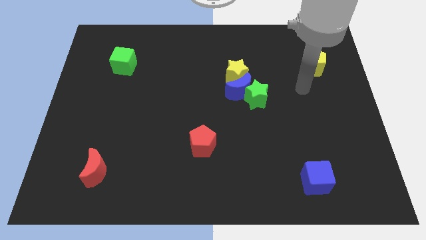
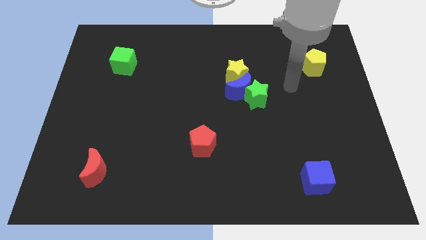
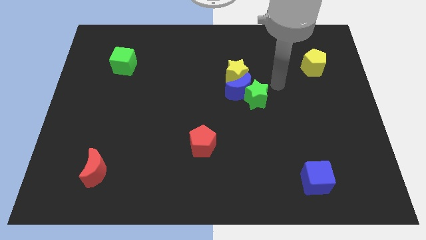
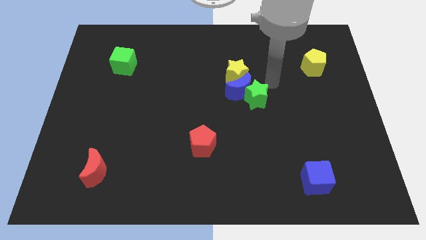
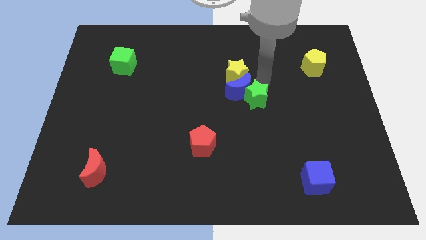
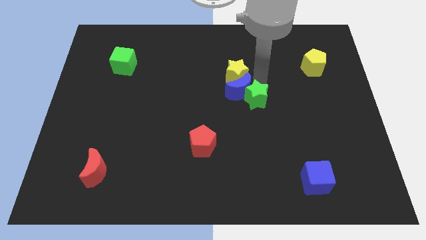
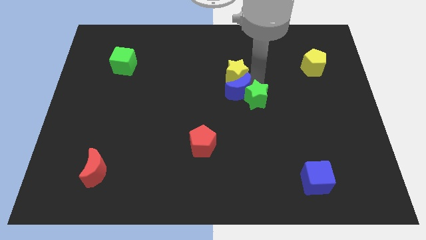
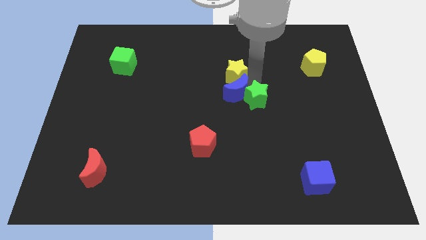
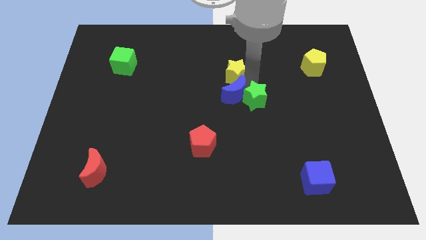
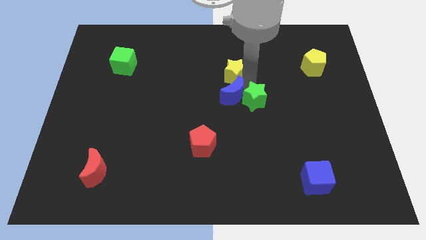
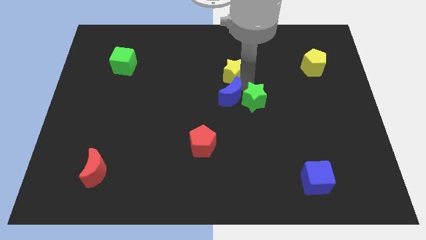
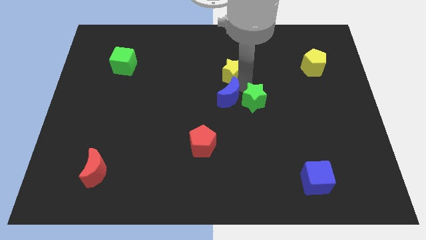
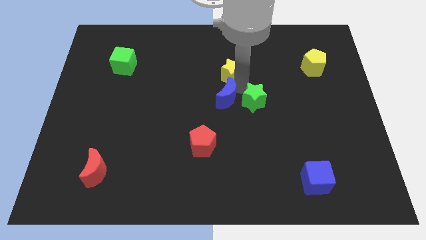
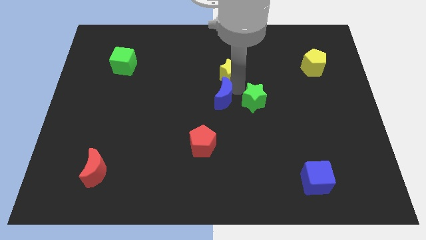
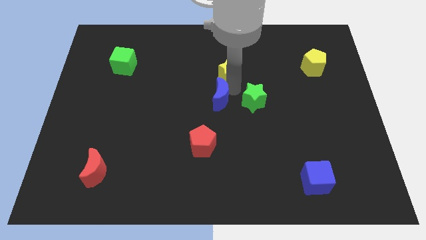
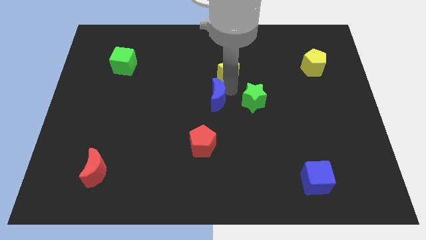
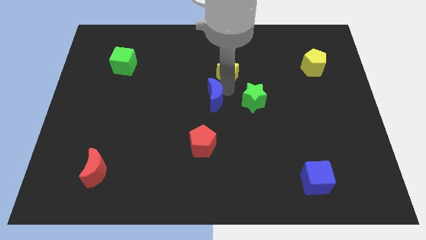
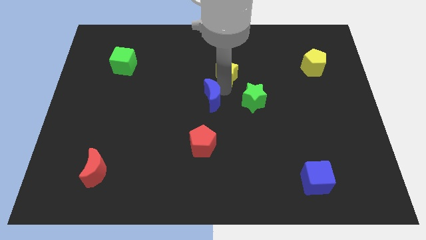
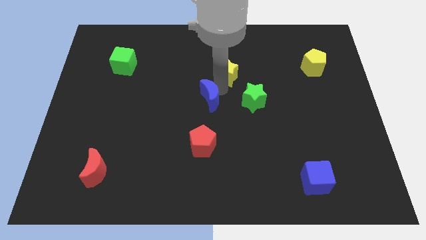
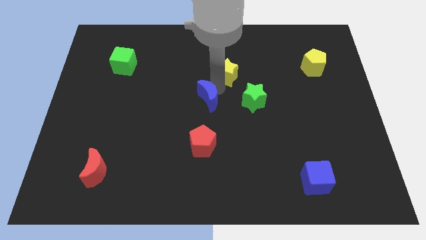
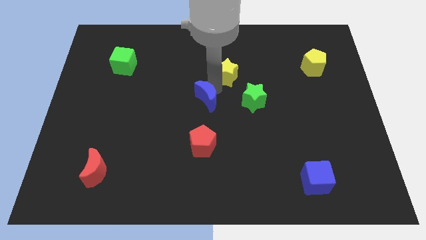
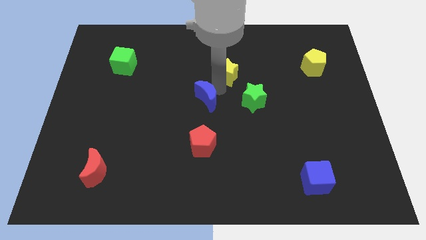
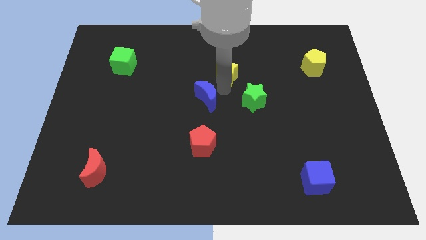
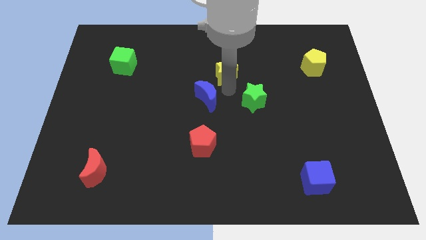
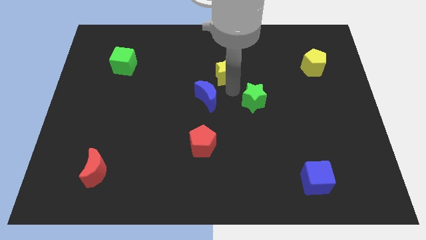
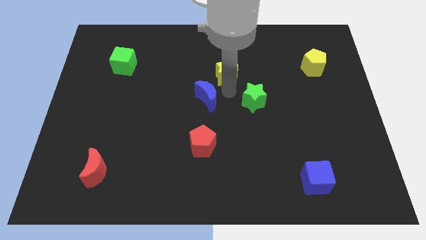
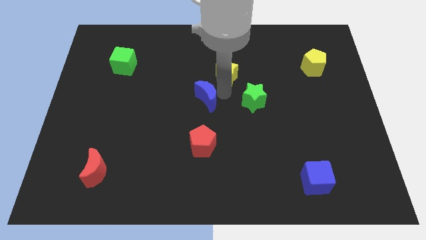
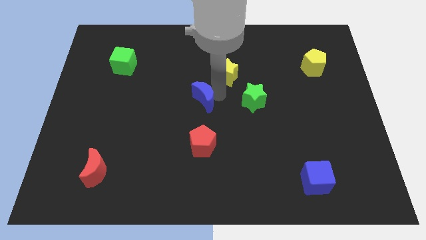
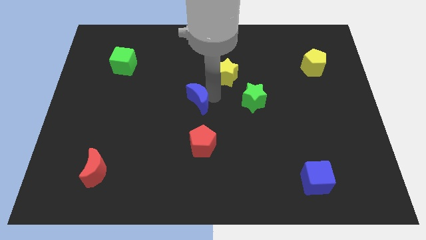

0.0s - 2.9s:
move the blue moon away from the green star and yellow star

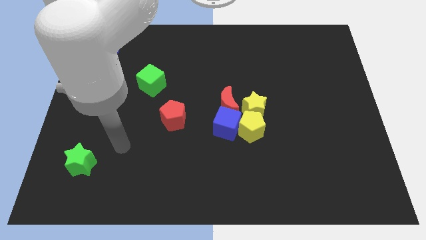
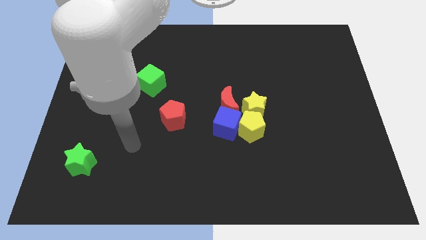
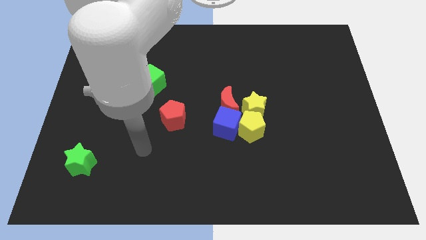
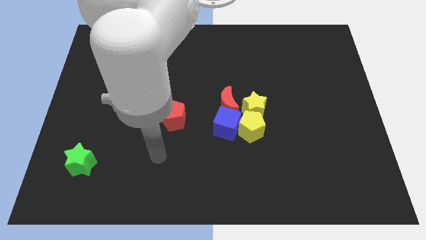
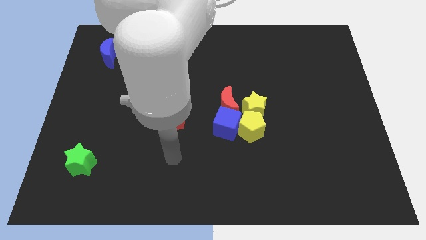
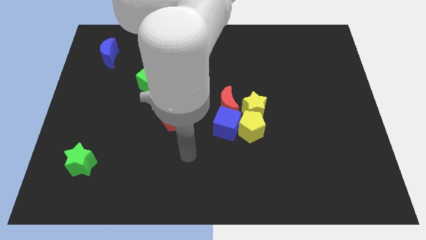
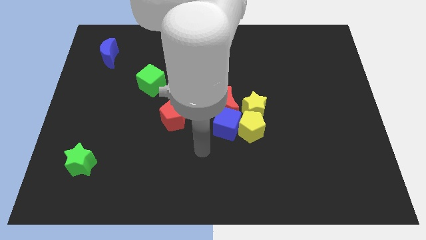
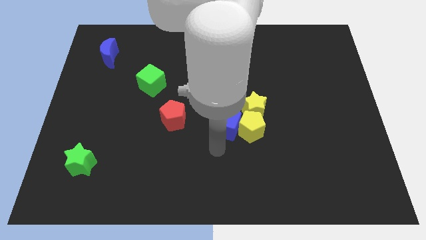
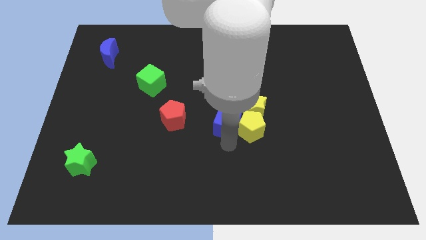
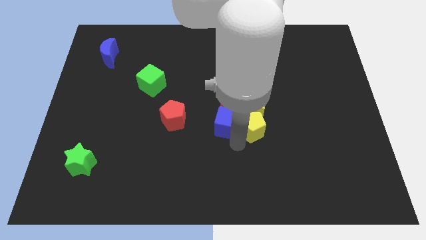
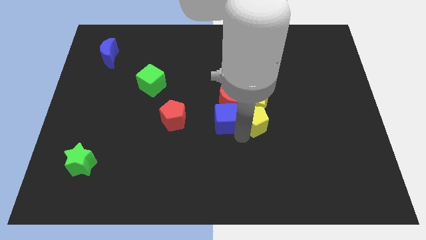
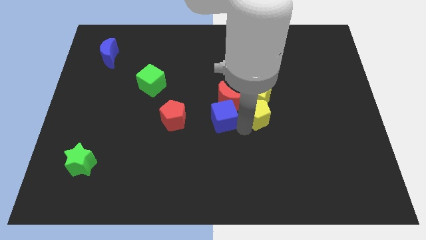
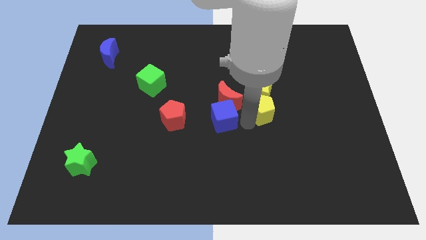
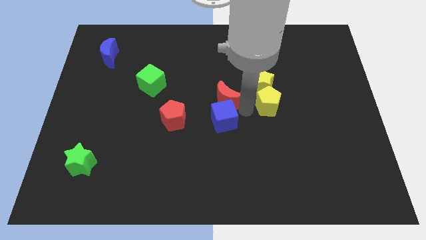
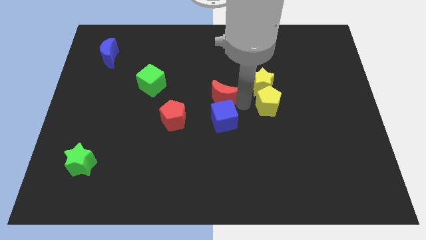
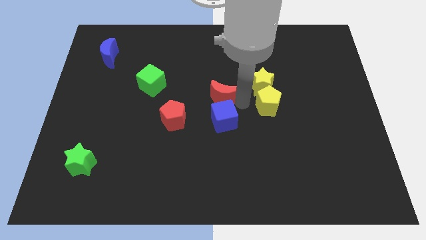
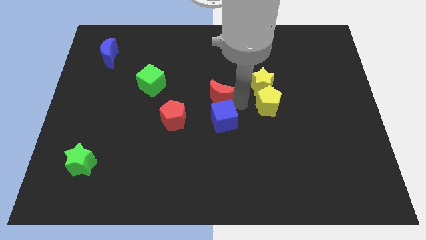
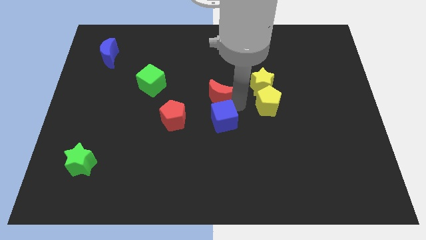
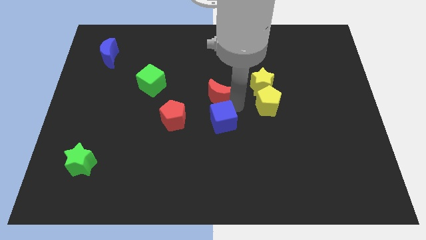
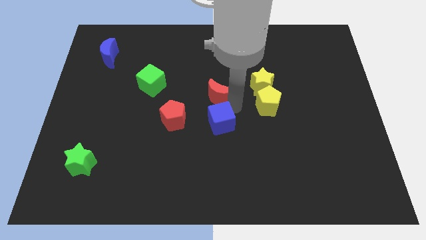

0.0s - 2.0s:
move the blue cube away from the group

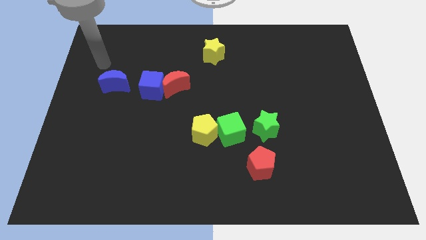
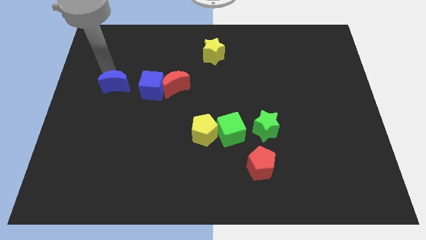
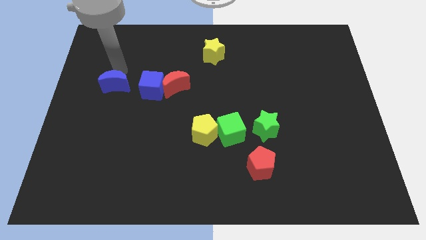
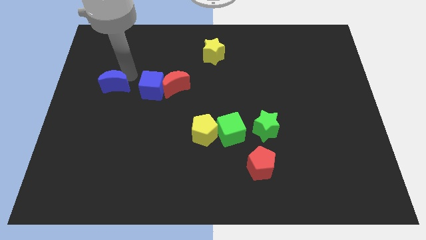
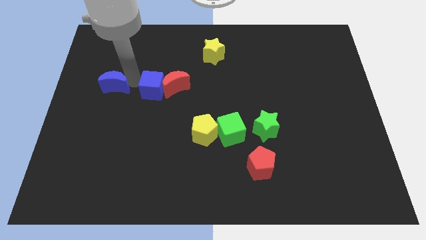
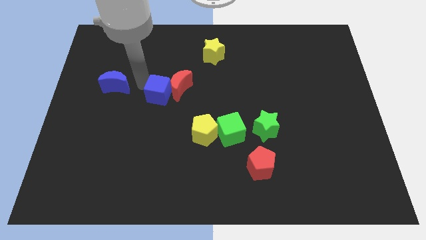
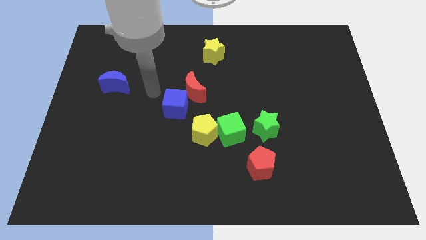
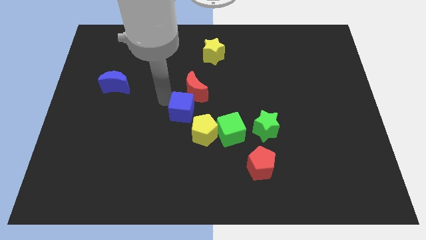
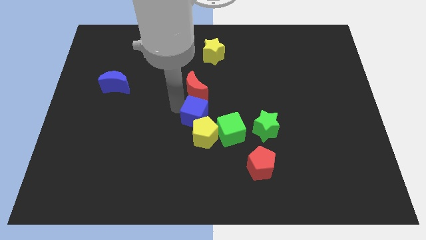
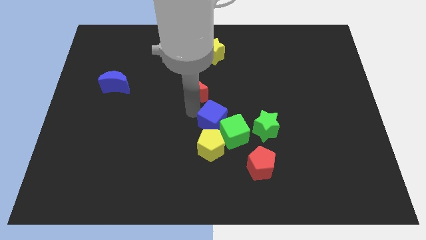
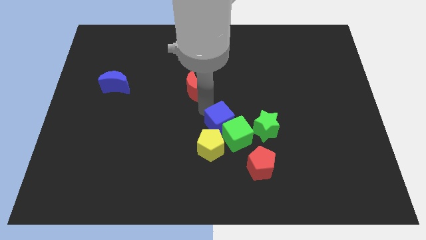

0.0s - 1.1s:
pull the red moon apart from the blue cube

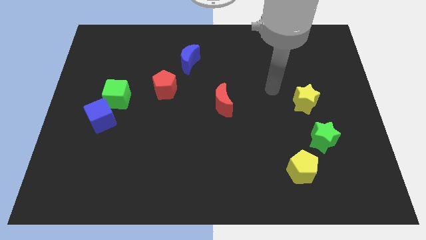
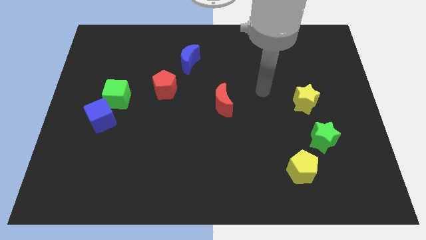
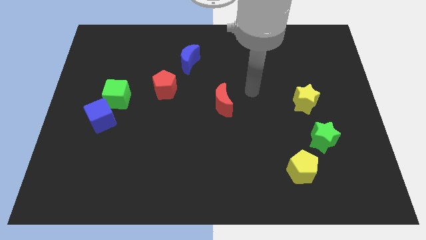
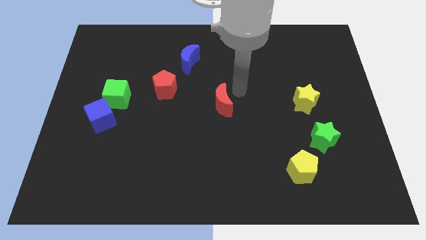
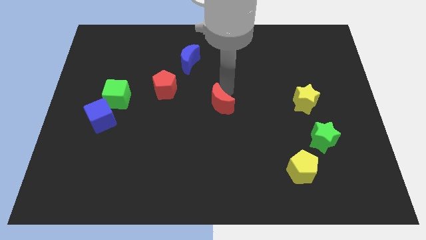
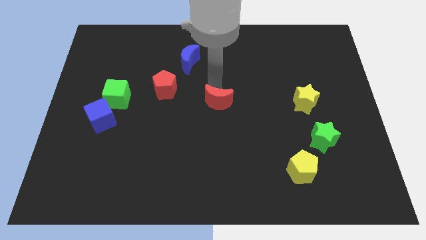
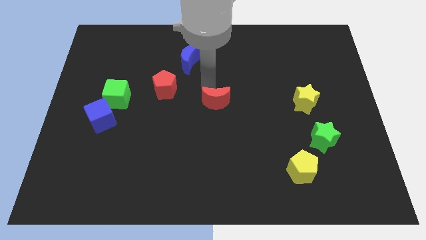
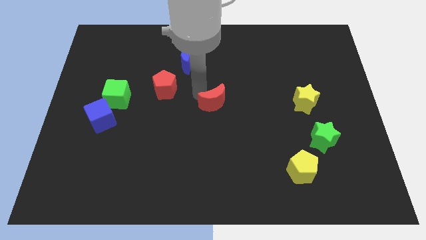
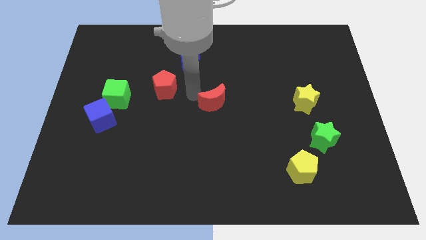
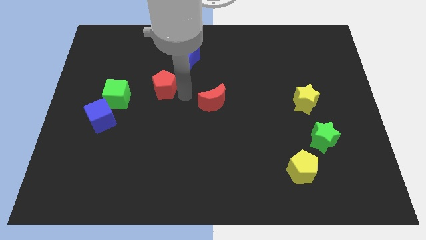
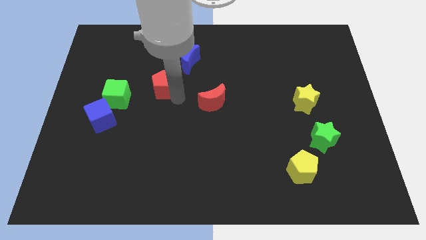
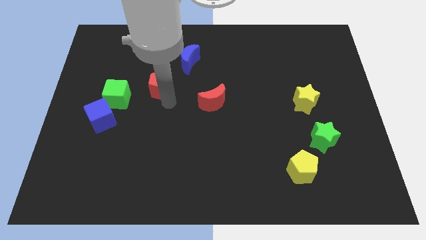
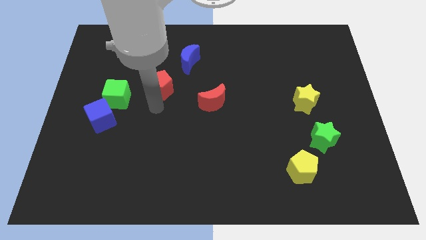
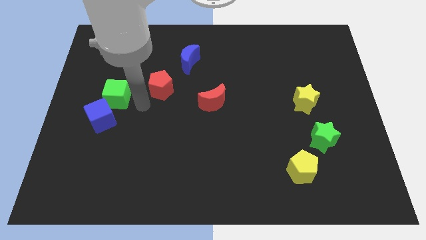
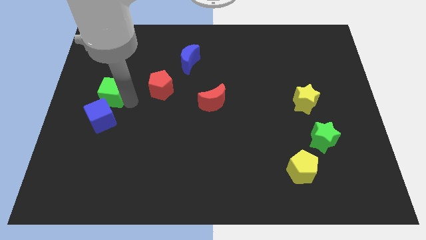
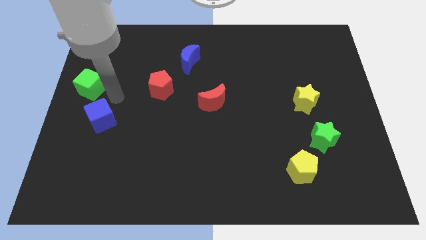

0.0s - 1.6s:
move the blue cube away from the green cube

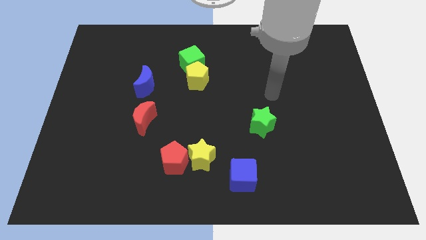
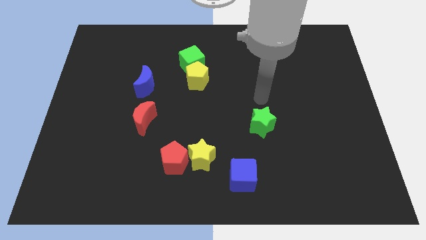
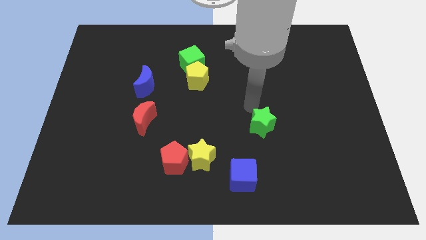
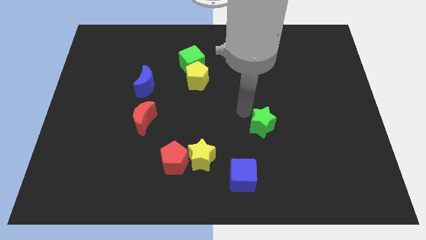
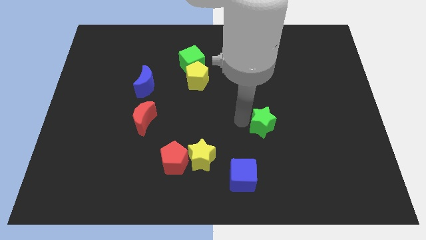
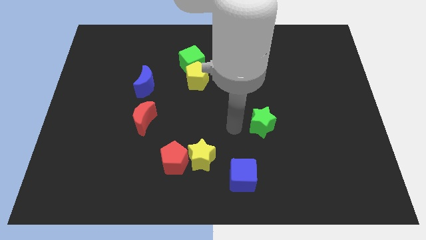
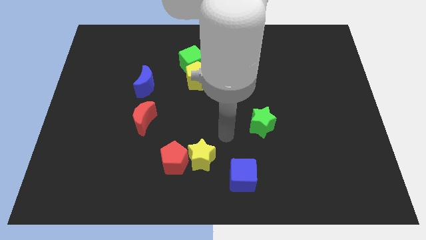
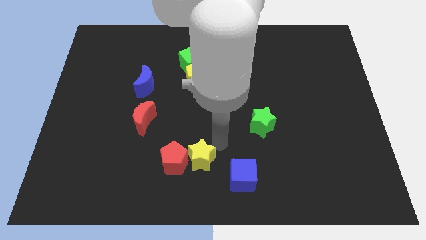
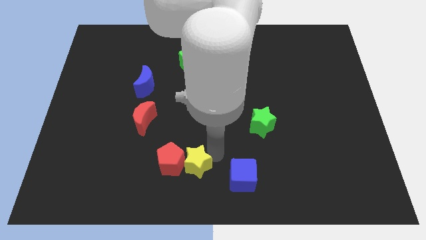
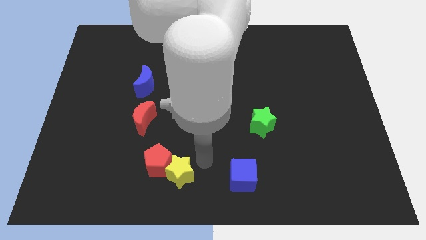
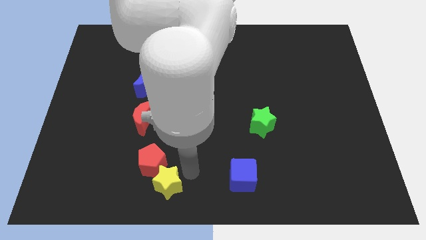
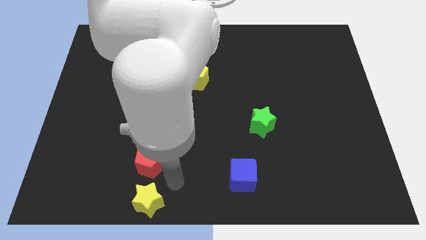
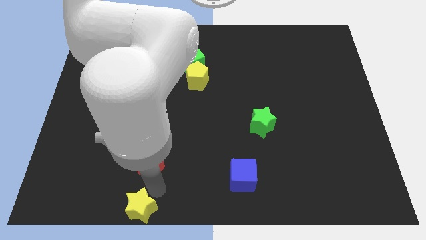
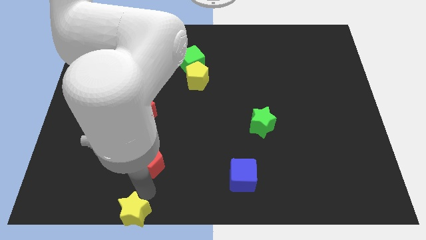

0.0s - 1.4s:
pull the red pentagon apart from the yellow star

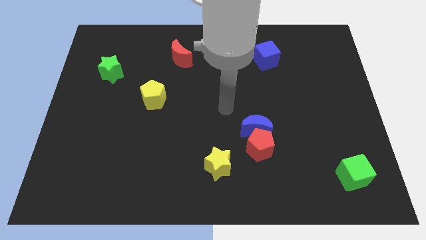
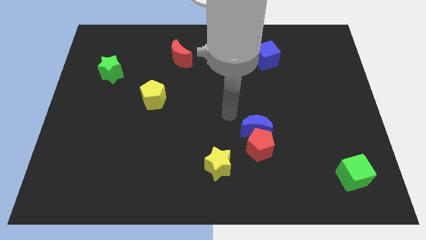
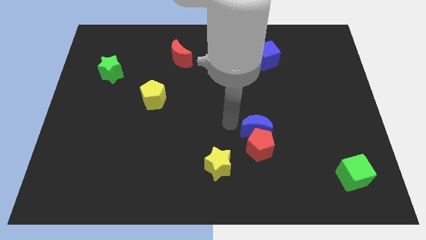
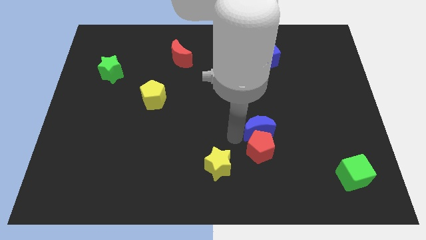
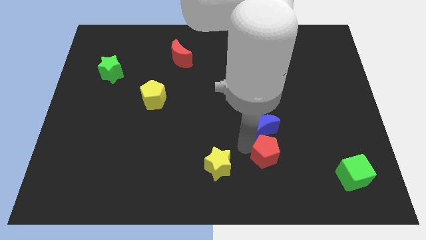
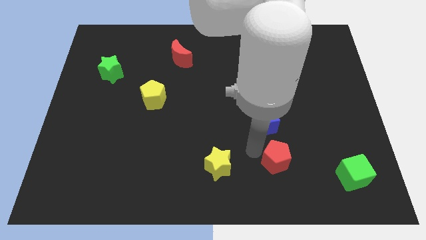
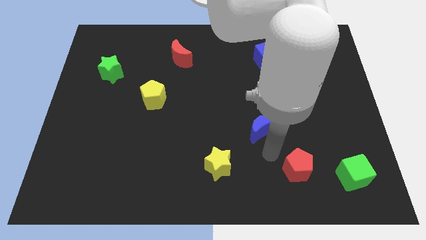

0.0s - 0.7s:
pull the blue moon apart from the red pentagon
